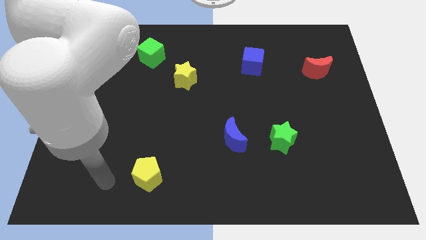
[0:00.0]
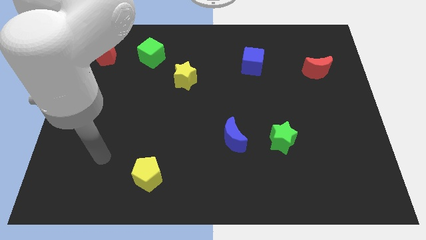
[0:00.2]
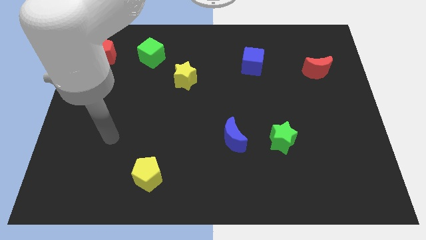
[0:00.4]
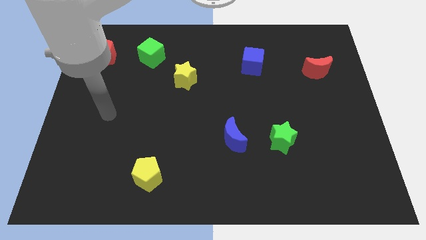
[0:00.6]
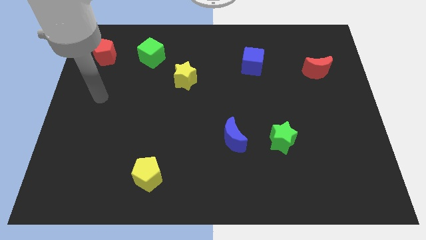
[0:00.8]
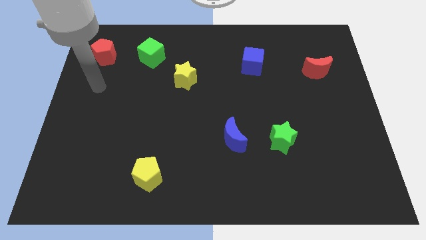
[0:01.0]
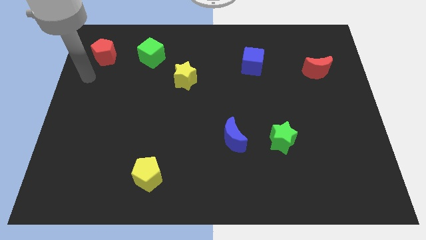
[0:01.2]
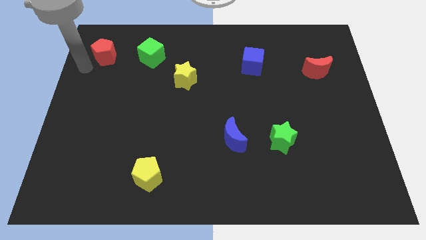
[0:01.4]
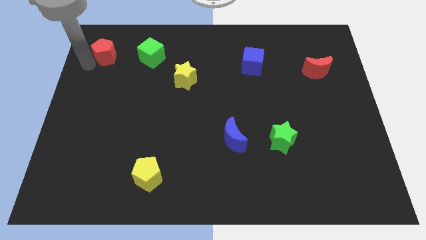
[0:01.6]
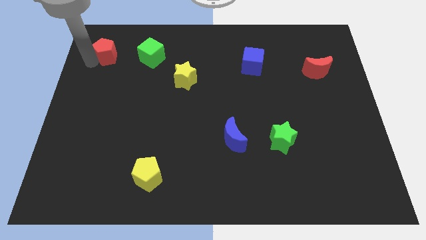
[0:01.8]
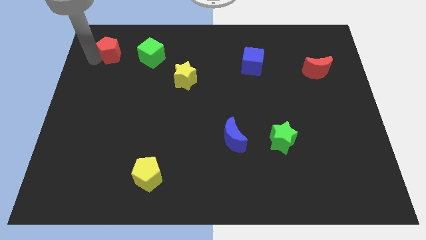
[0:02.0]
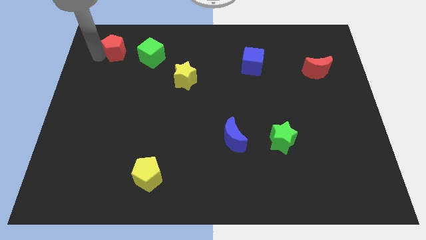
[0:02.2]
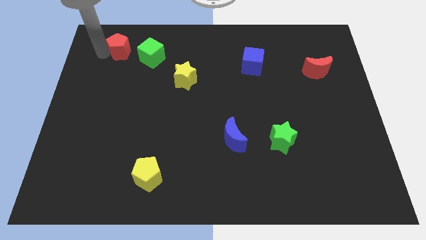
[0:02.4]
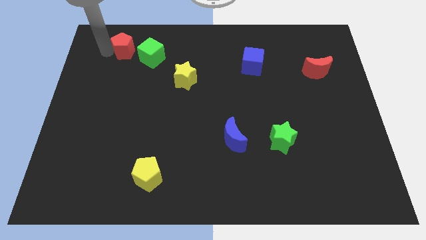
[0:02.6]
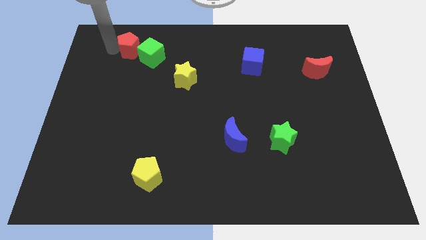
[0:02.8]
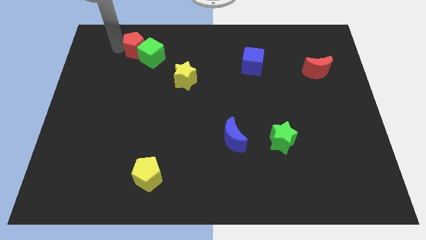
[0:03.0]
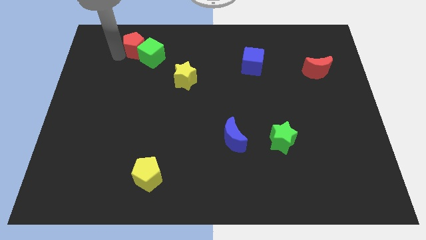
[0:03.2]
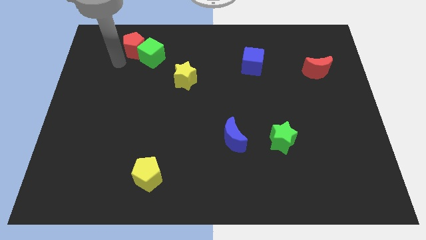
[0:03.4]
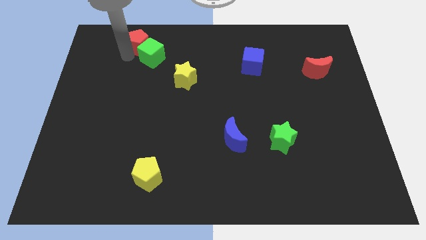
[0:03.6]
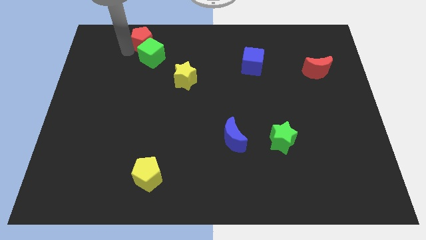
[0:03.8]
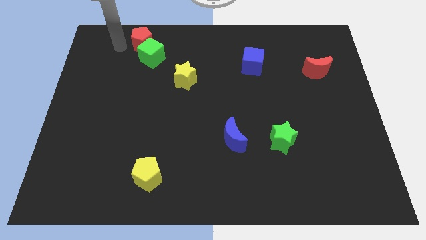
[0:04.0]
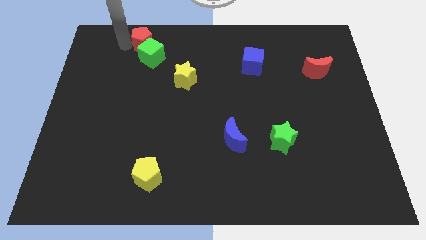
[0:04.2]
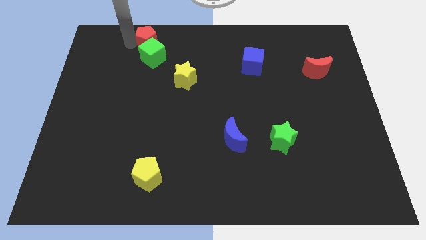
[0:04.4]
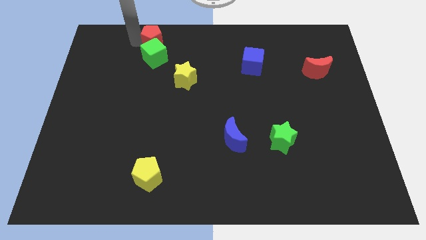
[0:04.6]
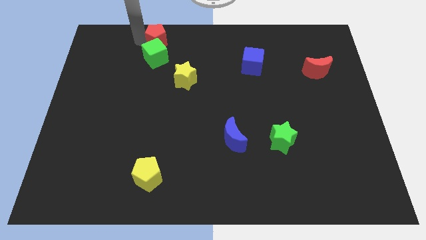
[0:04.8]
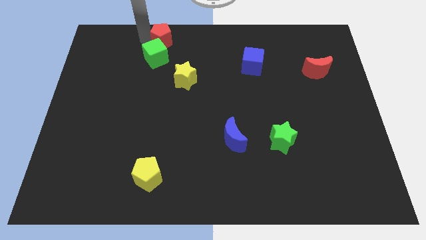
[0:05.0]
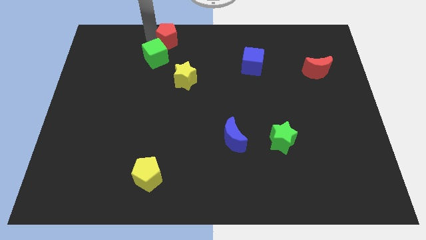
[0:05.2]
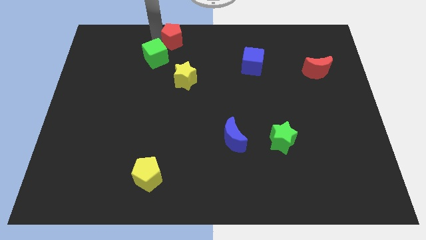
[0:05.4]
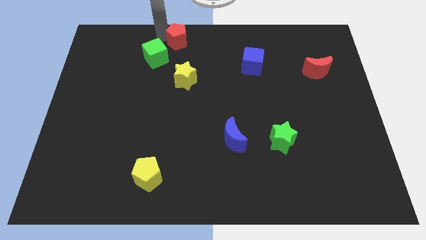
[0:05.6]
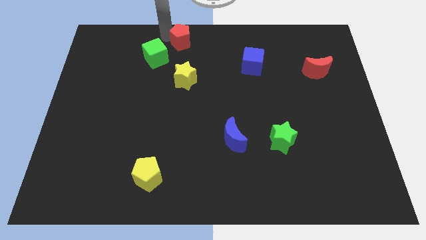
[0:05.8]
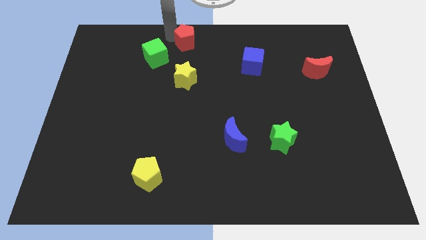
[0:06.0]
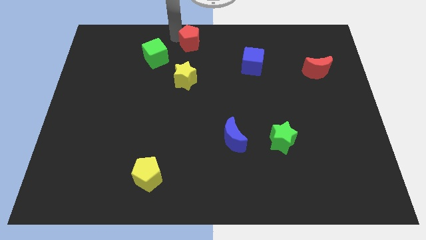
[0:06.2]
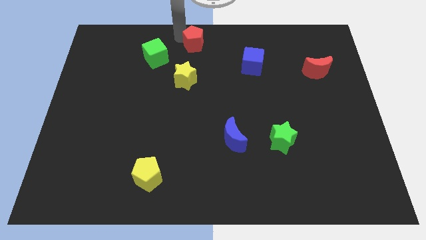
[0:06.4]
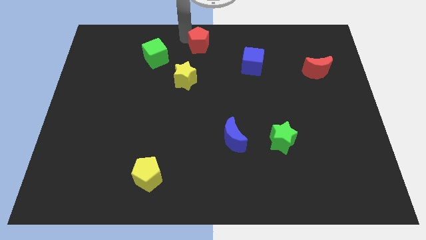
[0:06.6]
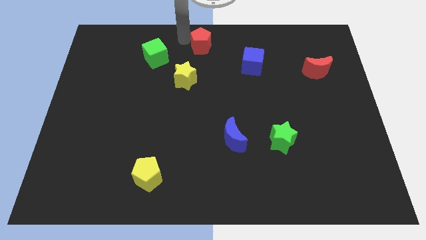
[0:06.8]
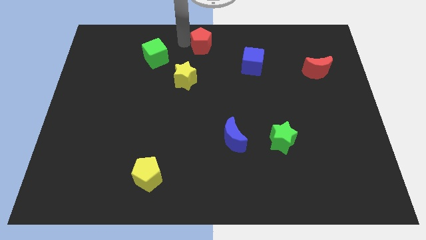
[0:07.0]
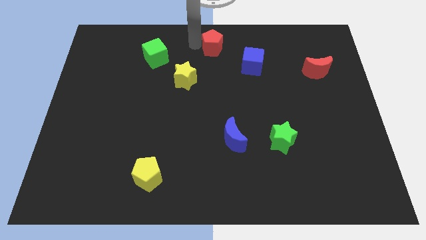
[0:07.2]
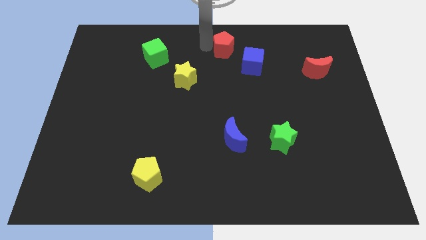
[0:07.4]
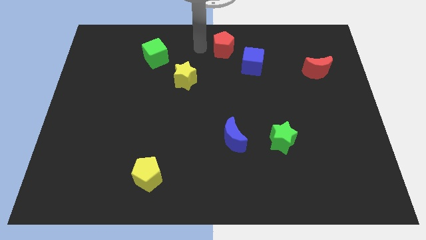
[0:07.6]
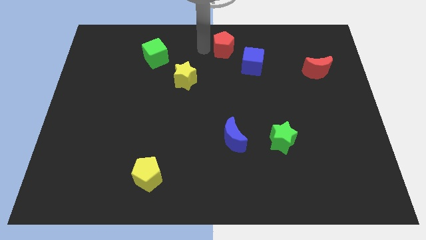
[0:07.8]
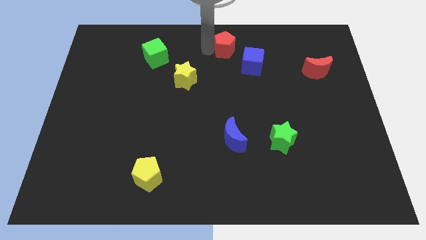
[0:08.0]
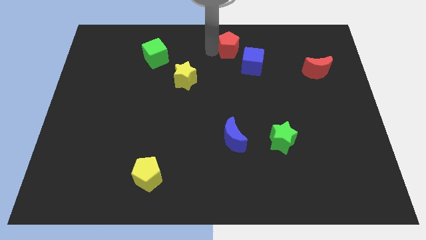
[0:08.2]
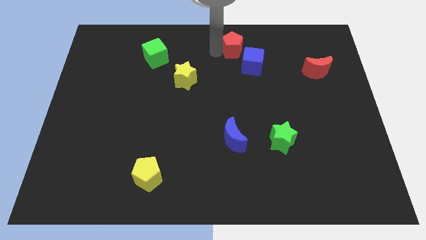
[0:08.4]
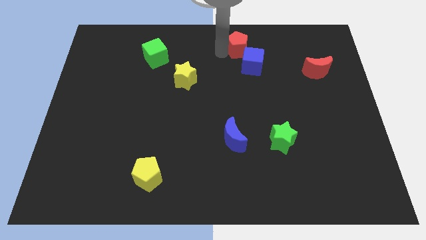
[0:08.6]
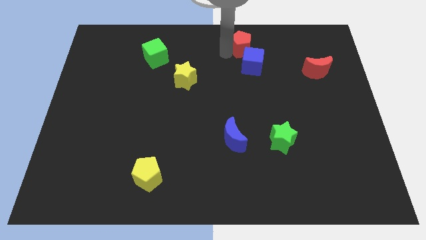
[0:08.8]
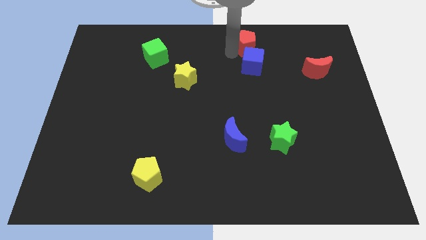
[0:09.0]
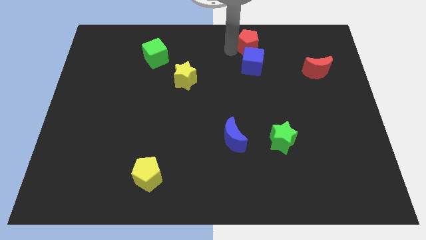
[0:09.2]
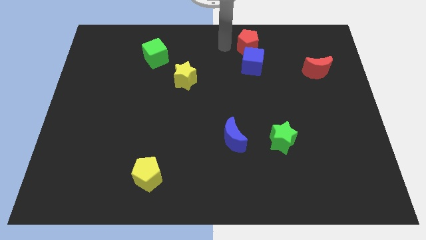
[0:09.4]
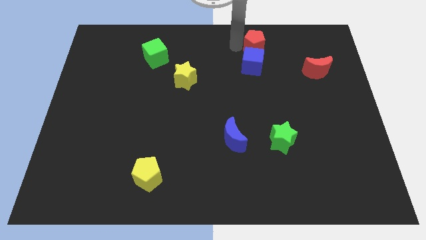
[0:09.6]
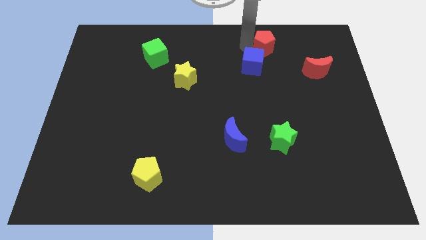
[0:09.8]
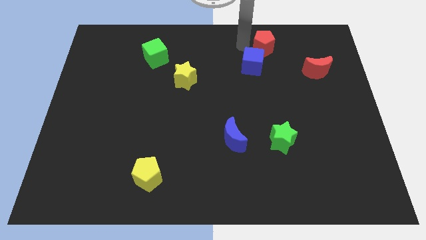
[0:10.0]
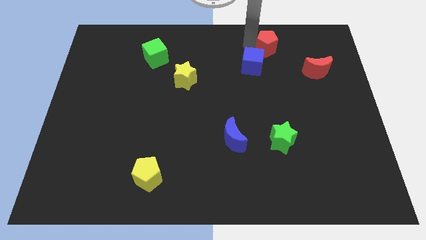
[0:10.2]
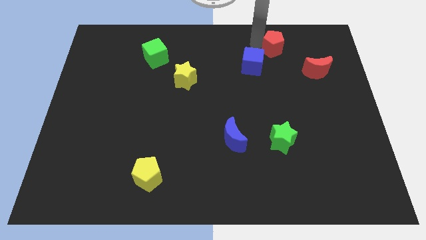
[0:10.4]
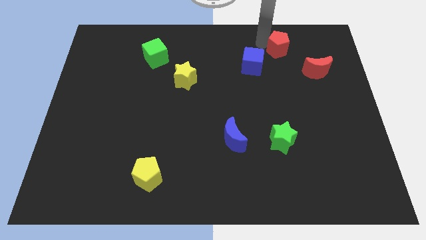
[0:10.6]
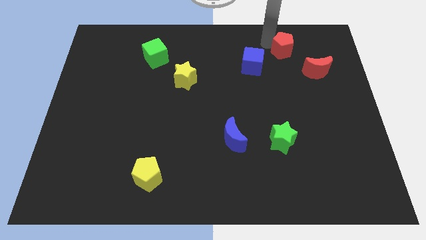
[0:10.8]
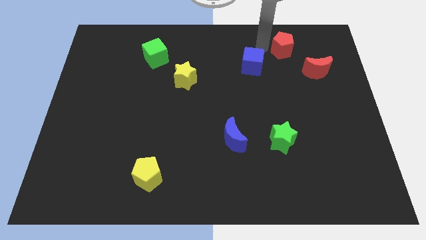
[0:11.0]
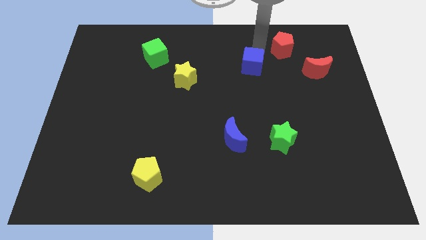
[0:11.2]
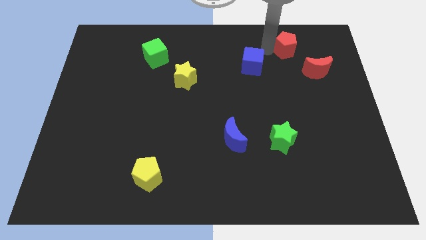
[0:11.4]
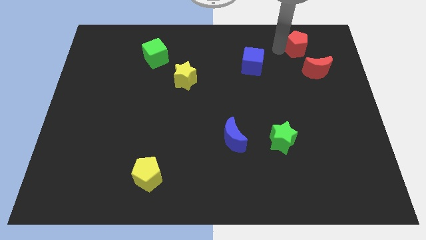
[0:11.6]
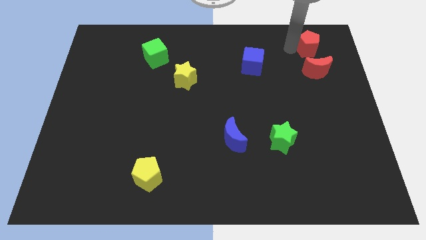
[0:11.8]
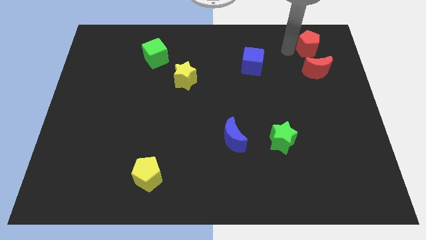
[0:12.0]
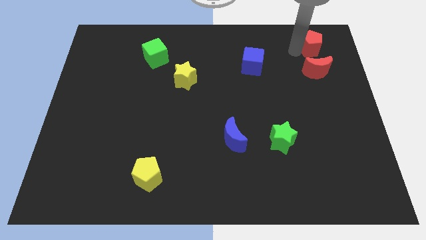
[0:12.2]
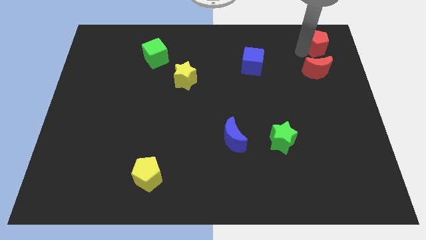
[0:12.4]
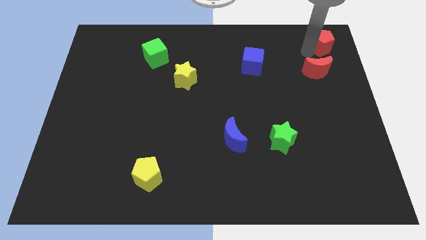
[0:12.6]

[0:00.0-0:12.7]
put the red pentagon to the top right of the board

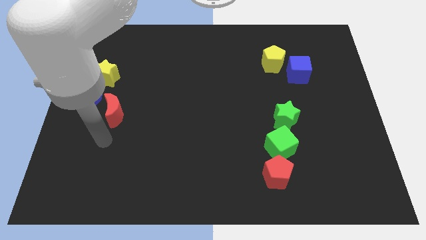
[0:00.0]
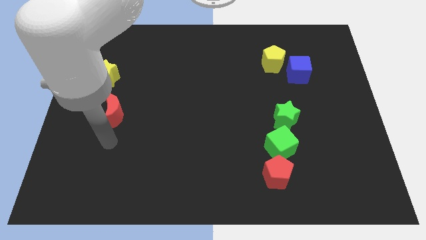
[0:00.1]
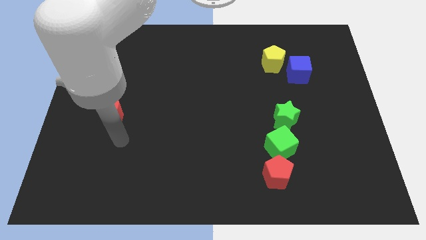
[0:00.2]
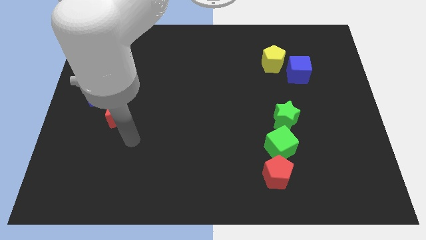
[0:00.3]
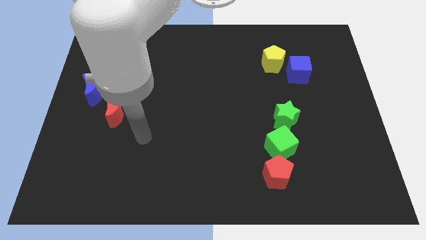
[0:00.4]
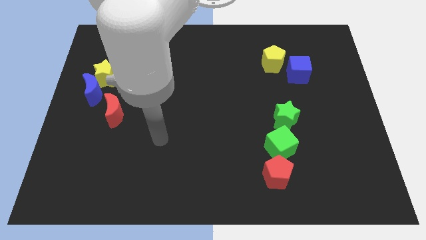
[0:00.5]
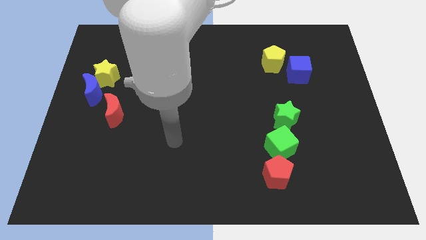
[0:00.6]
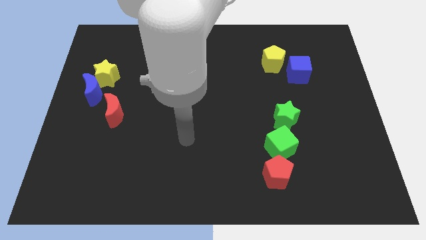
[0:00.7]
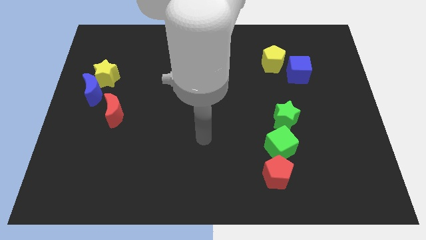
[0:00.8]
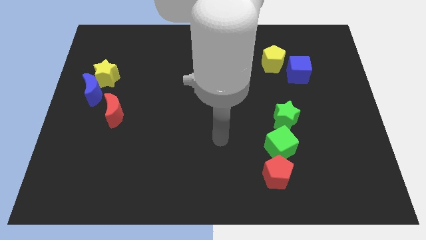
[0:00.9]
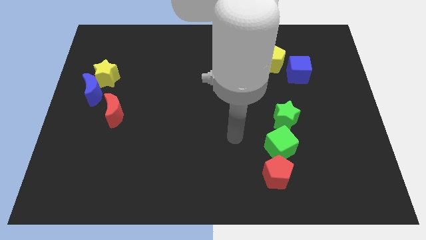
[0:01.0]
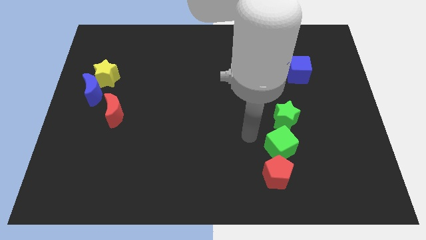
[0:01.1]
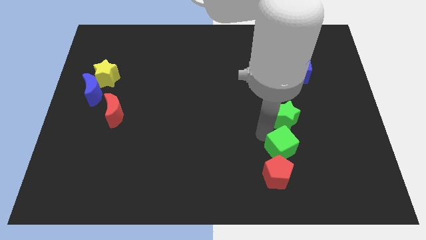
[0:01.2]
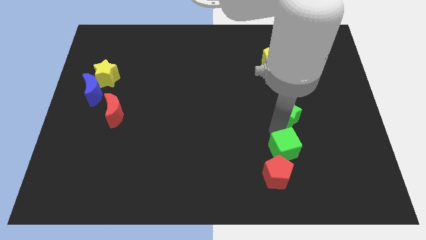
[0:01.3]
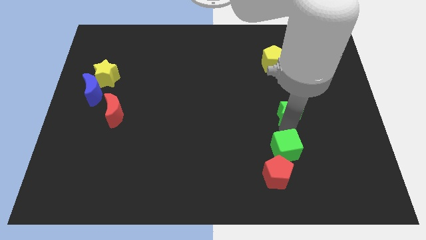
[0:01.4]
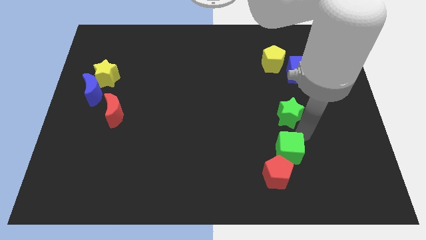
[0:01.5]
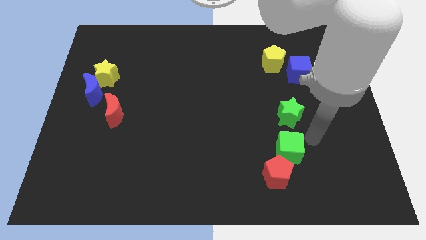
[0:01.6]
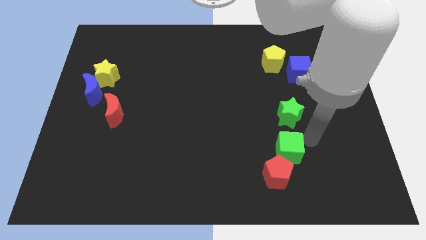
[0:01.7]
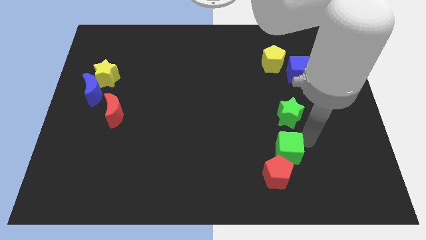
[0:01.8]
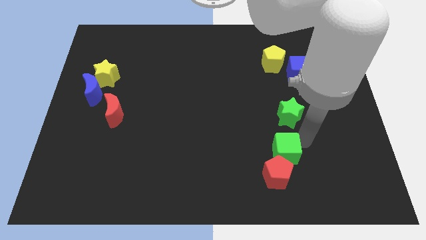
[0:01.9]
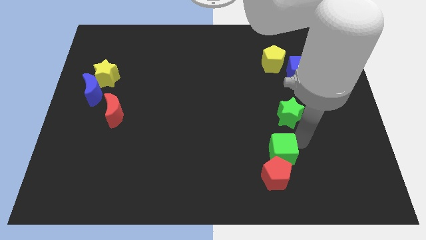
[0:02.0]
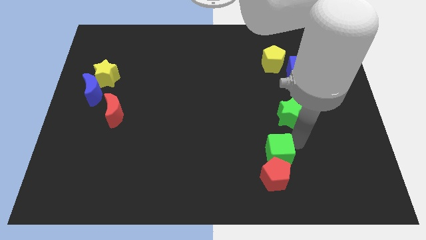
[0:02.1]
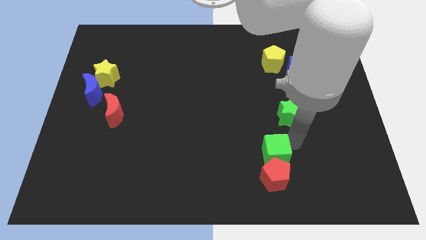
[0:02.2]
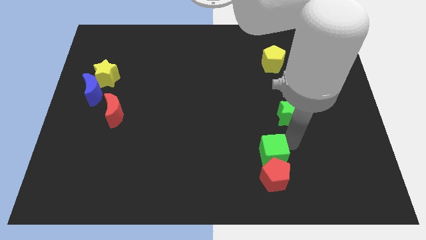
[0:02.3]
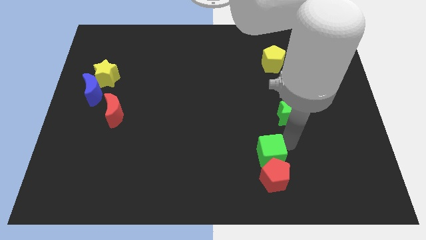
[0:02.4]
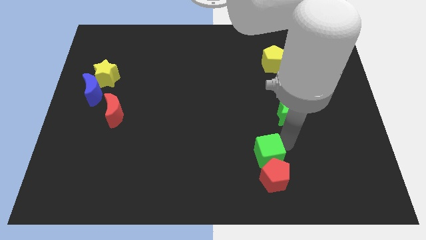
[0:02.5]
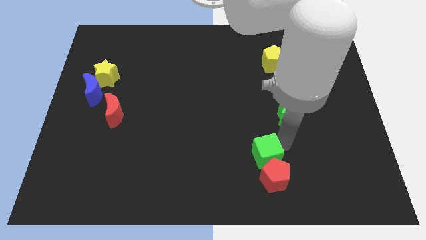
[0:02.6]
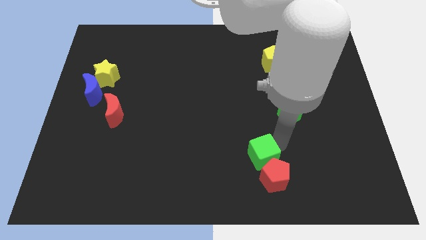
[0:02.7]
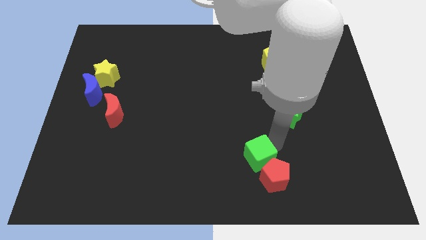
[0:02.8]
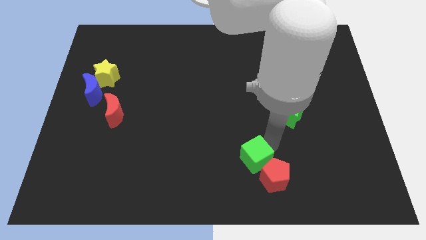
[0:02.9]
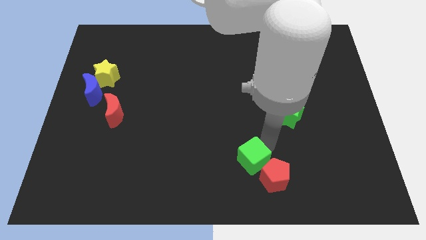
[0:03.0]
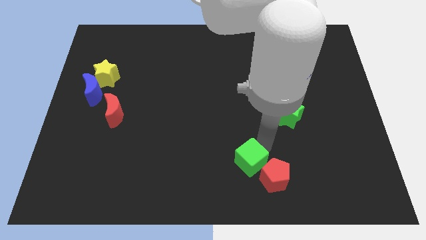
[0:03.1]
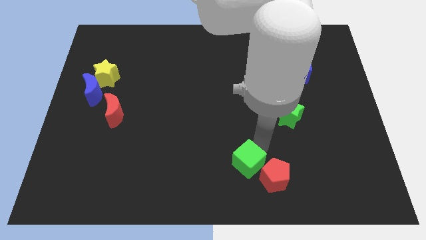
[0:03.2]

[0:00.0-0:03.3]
move the green cube to the bottom side
